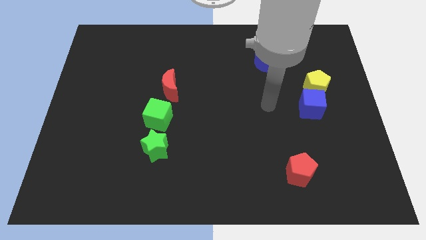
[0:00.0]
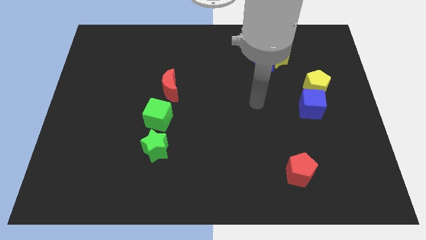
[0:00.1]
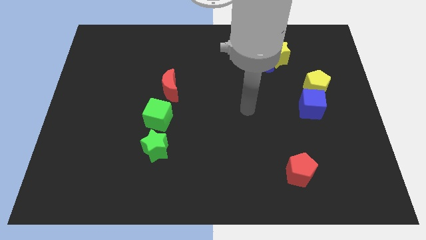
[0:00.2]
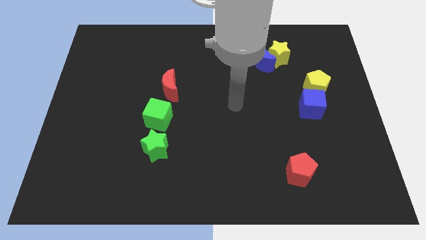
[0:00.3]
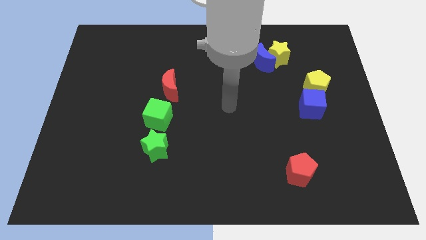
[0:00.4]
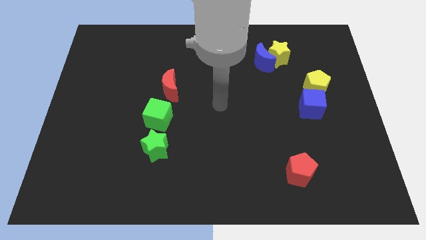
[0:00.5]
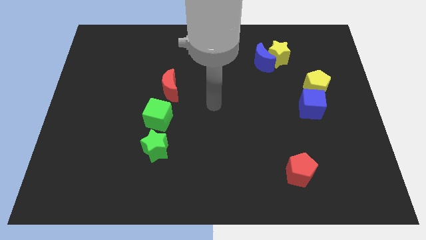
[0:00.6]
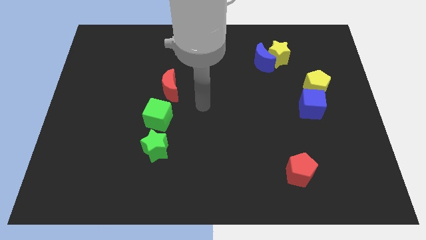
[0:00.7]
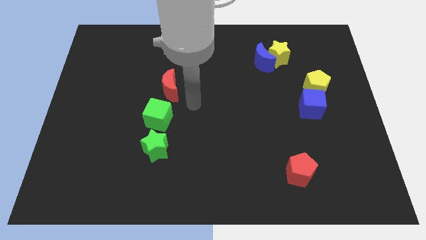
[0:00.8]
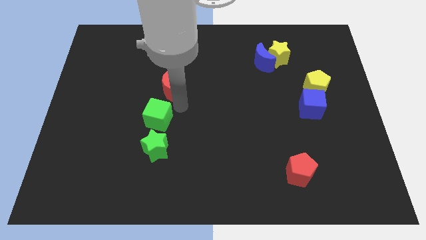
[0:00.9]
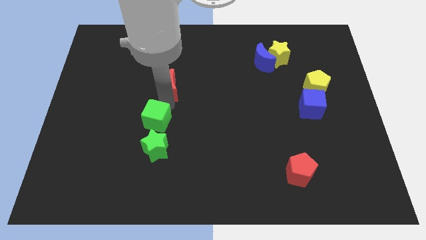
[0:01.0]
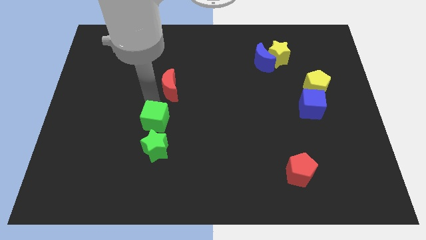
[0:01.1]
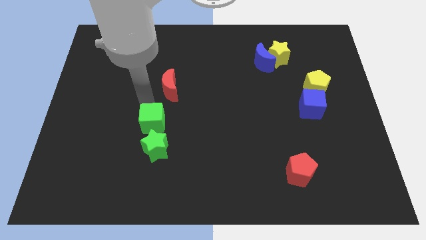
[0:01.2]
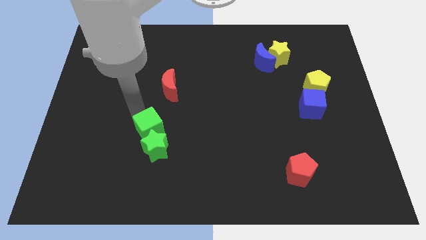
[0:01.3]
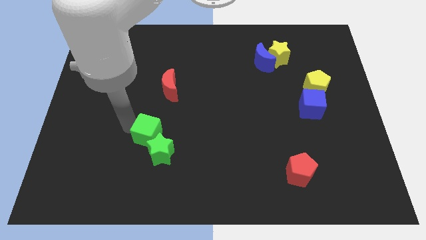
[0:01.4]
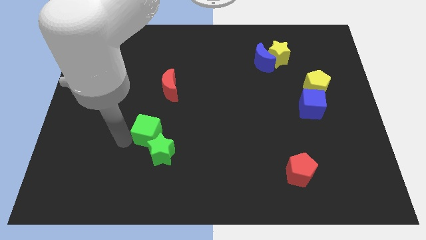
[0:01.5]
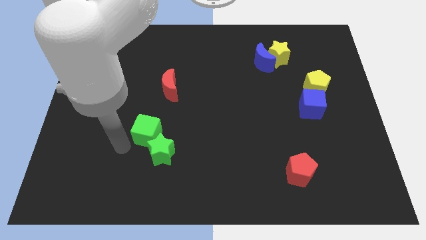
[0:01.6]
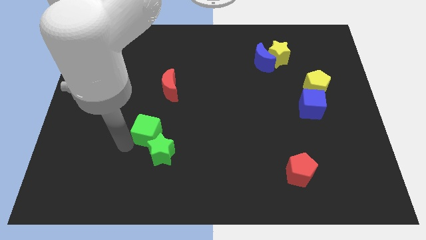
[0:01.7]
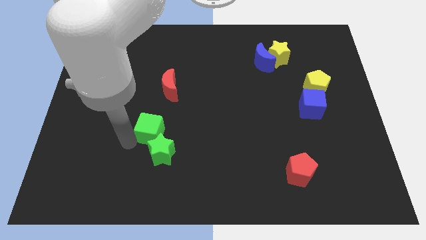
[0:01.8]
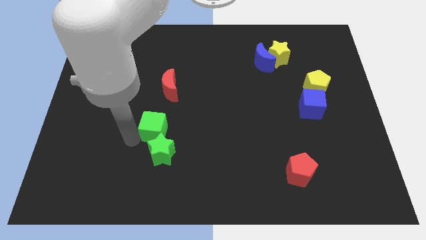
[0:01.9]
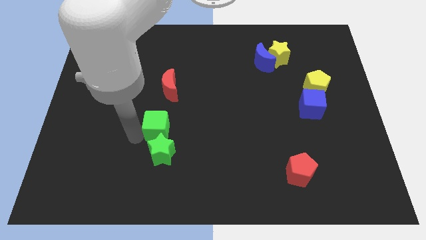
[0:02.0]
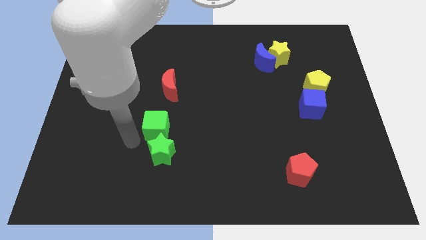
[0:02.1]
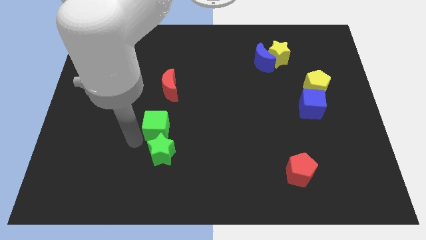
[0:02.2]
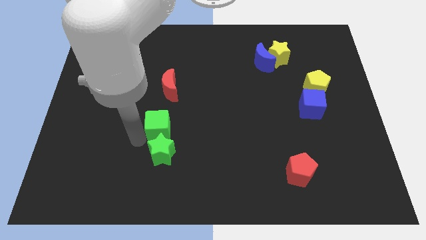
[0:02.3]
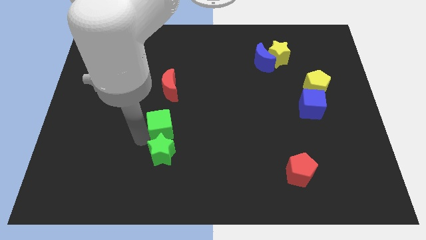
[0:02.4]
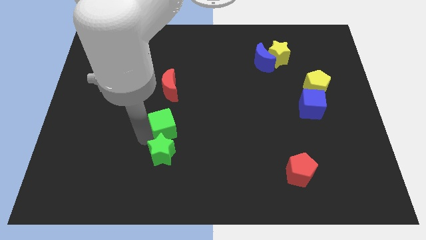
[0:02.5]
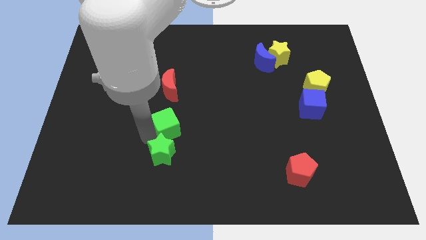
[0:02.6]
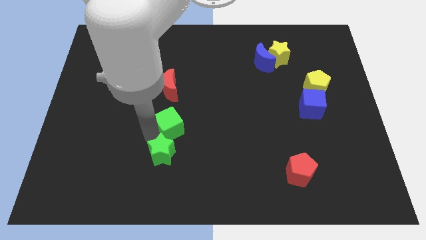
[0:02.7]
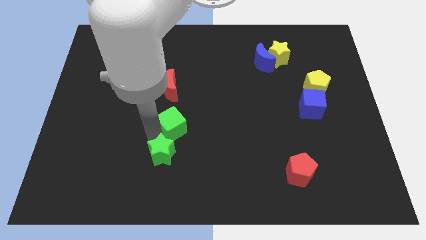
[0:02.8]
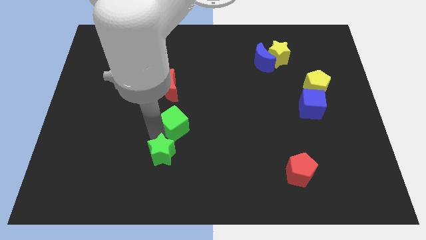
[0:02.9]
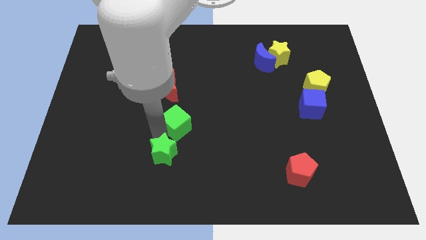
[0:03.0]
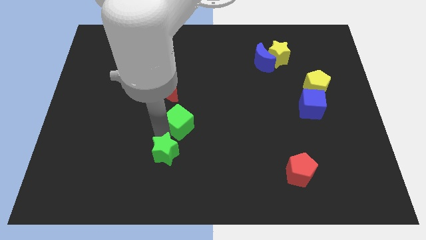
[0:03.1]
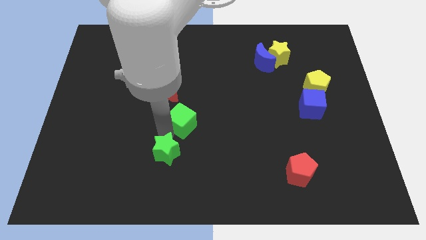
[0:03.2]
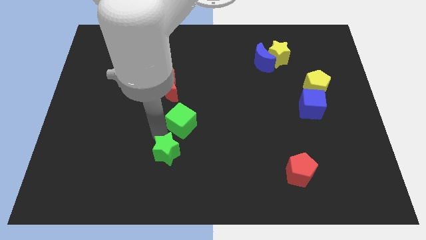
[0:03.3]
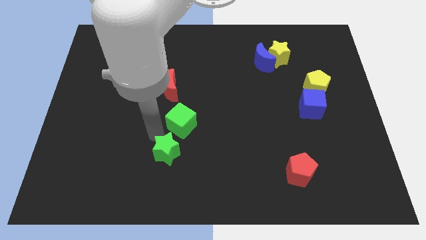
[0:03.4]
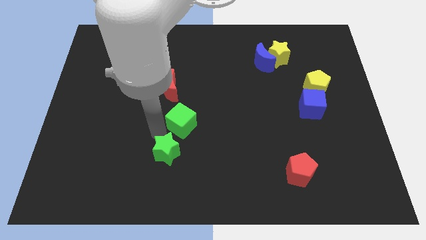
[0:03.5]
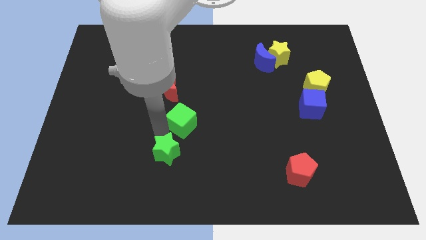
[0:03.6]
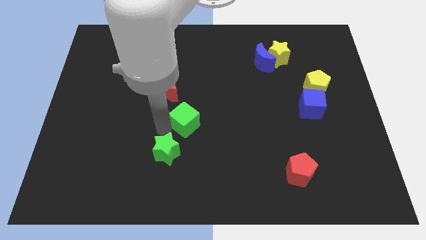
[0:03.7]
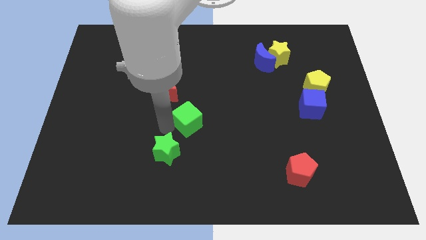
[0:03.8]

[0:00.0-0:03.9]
move the green cube a bit to the right

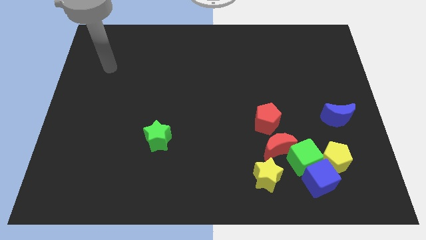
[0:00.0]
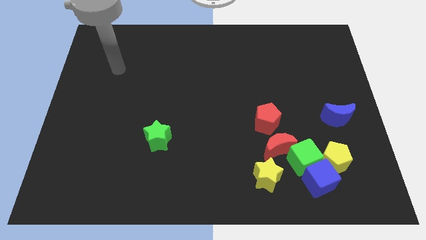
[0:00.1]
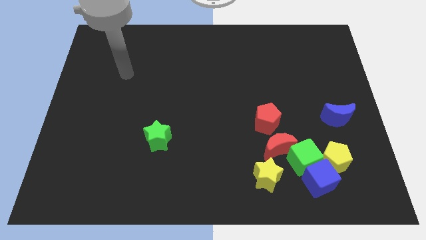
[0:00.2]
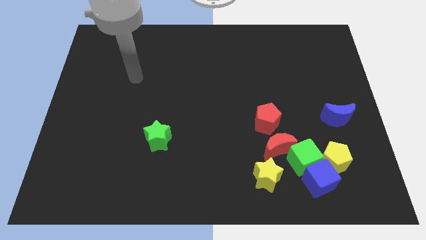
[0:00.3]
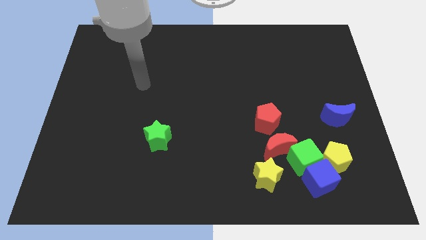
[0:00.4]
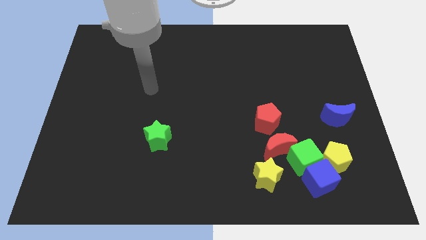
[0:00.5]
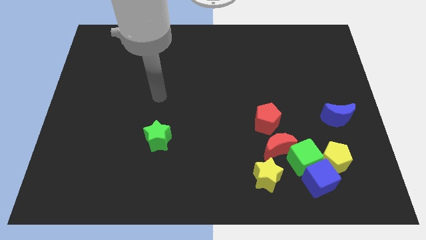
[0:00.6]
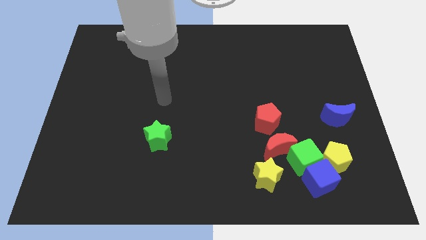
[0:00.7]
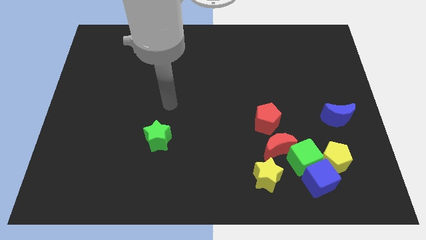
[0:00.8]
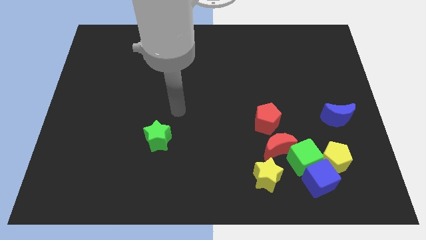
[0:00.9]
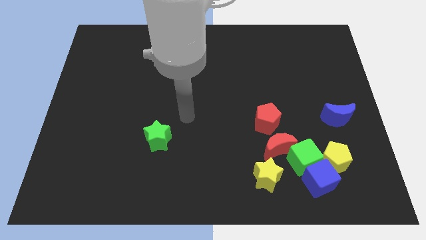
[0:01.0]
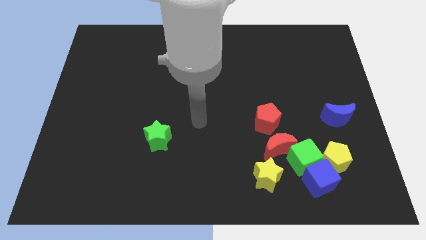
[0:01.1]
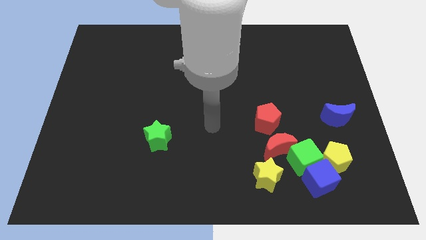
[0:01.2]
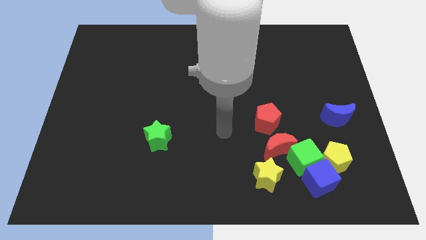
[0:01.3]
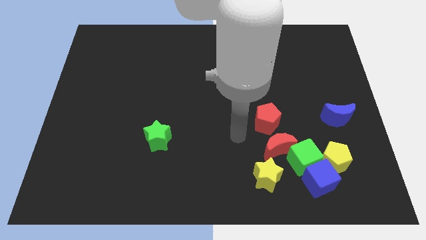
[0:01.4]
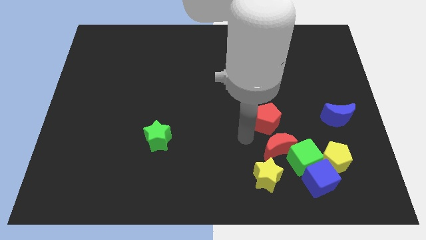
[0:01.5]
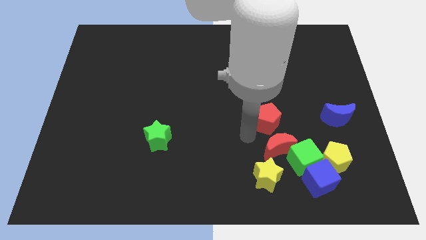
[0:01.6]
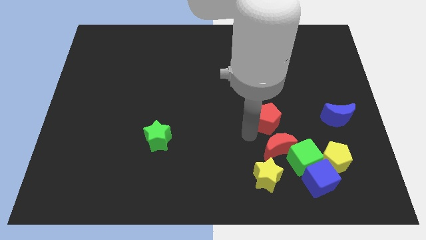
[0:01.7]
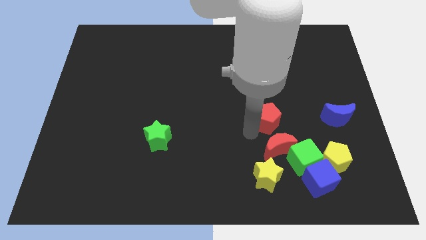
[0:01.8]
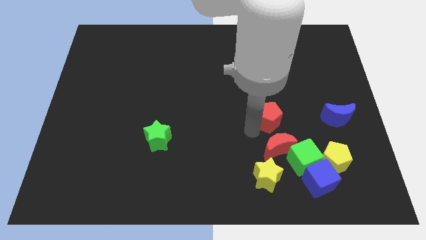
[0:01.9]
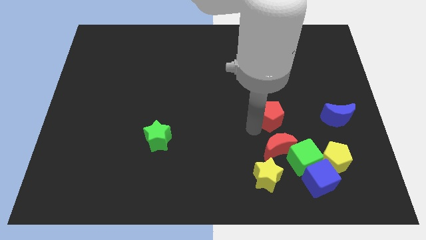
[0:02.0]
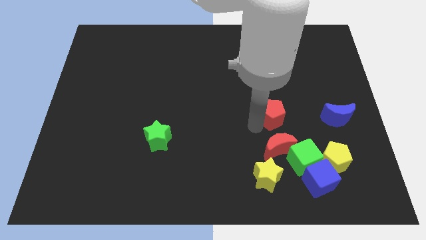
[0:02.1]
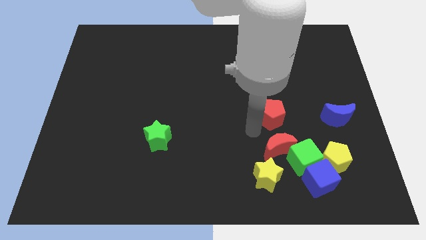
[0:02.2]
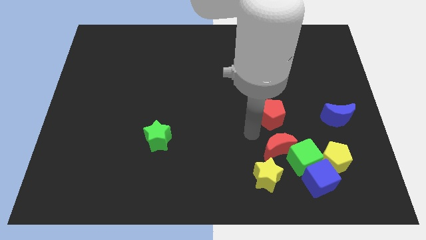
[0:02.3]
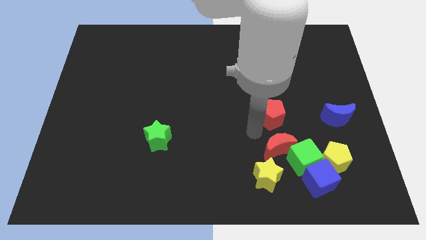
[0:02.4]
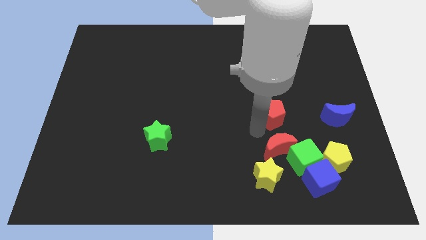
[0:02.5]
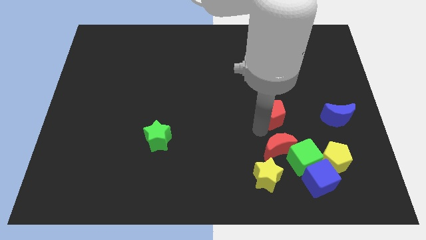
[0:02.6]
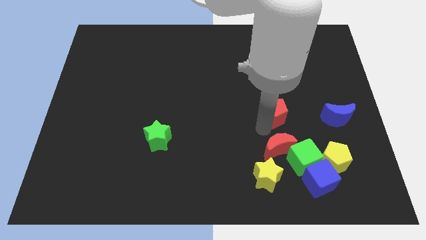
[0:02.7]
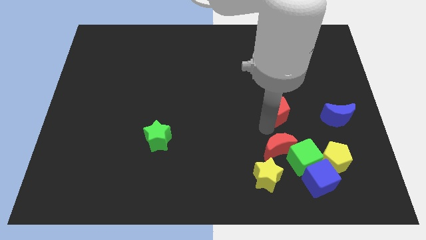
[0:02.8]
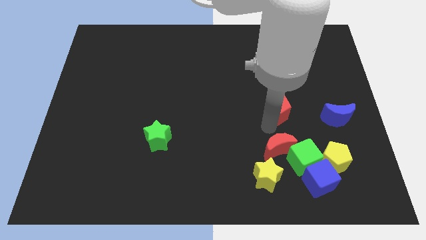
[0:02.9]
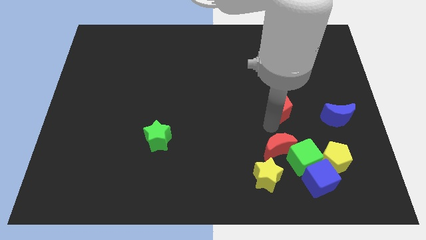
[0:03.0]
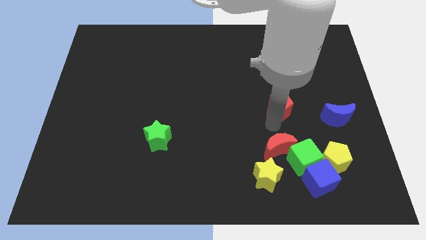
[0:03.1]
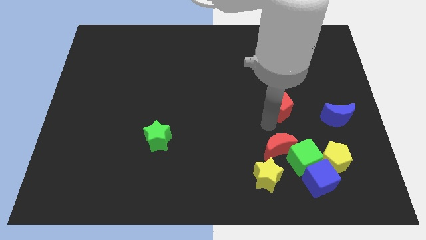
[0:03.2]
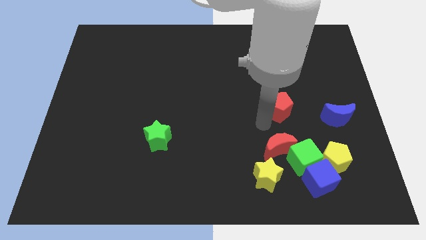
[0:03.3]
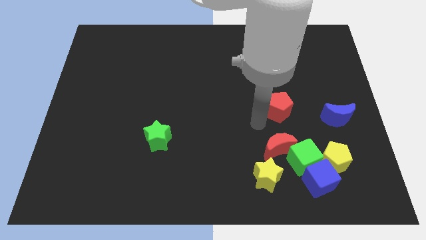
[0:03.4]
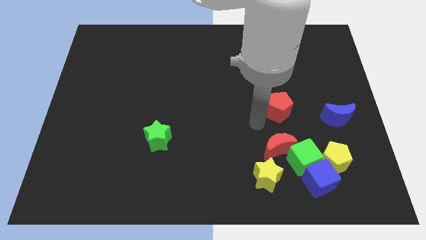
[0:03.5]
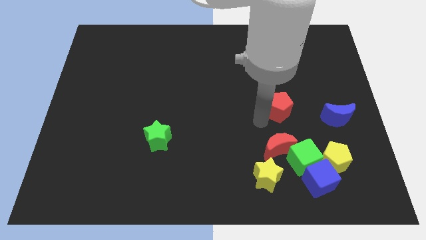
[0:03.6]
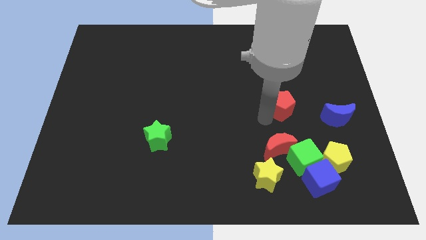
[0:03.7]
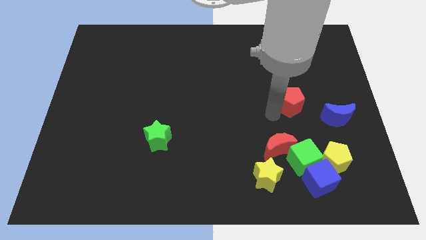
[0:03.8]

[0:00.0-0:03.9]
slide the red pentagon slightly up and to the right diagonally

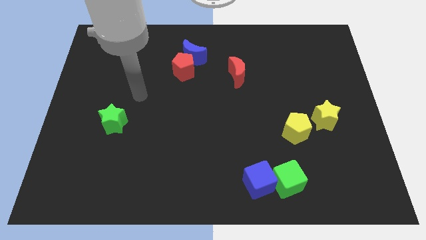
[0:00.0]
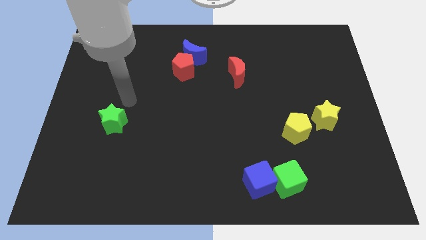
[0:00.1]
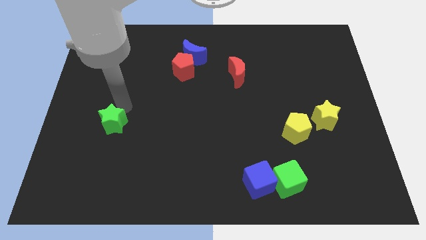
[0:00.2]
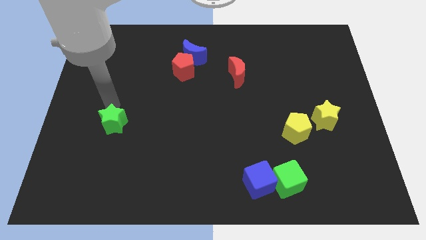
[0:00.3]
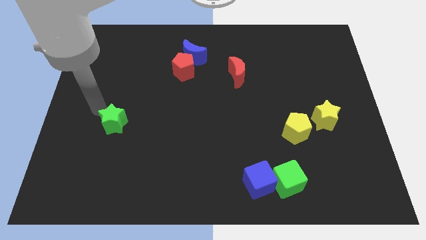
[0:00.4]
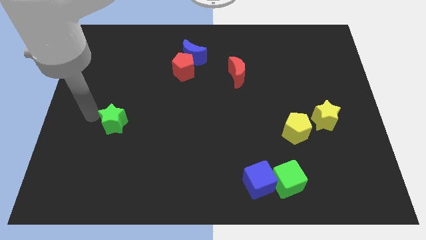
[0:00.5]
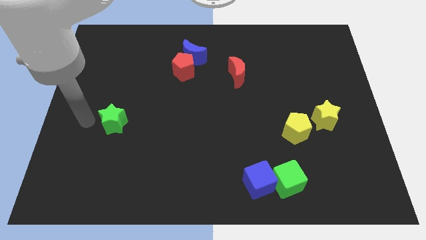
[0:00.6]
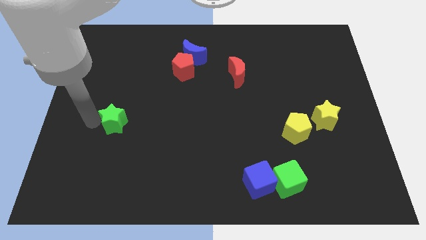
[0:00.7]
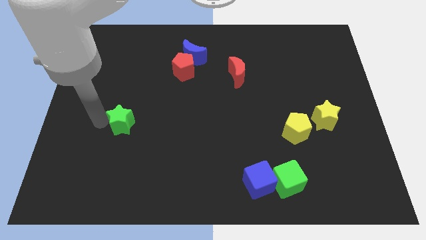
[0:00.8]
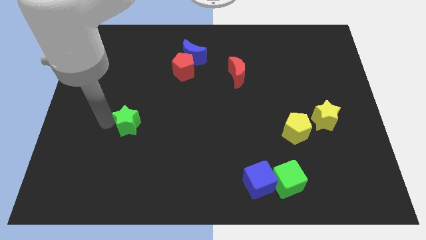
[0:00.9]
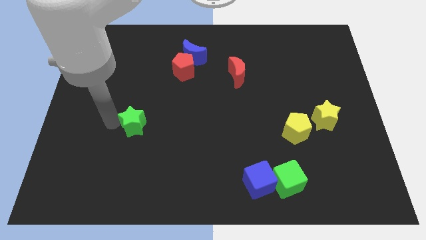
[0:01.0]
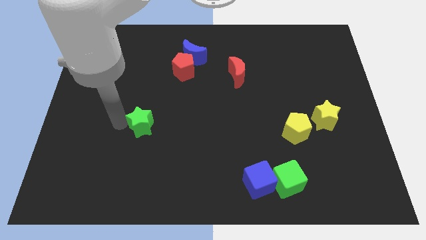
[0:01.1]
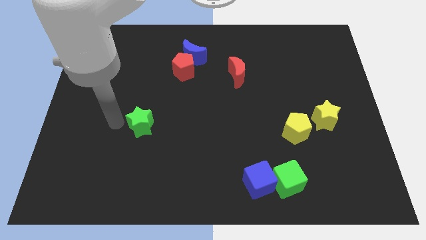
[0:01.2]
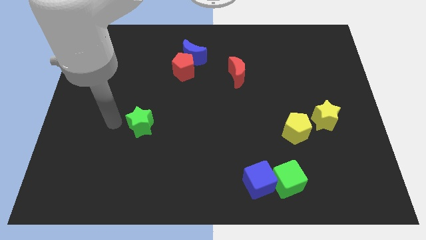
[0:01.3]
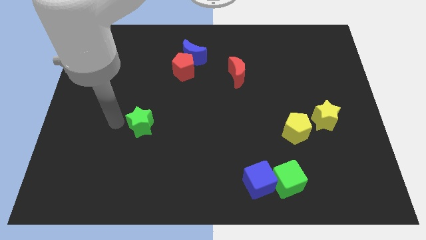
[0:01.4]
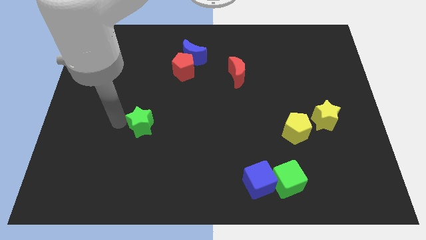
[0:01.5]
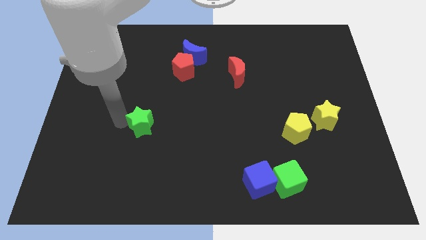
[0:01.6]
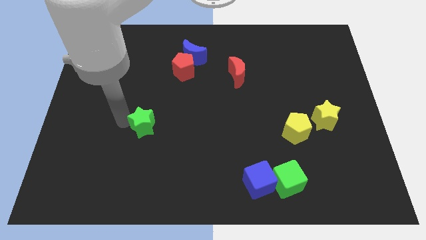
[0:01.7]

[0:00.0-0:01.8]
slide the green star to the right a little bit
